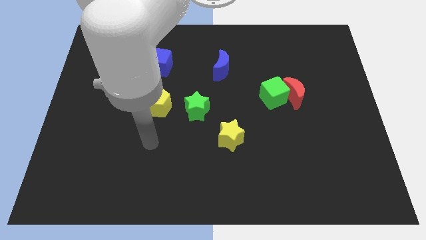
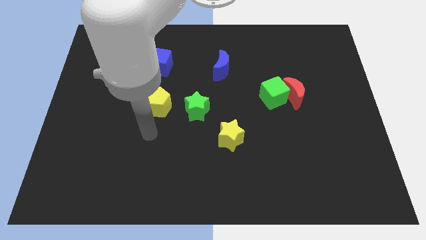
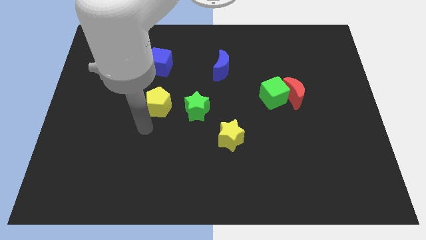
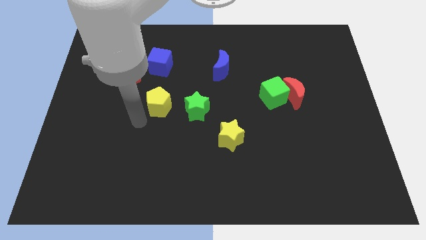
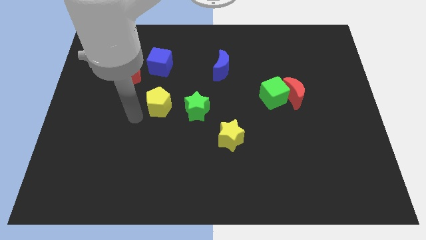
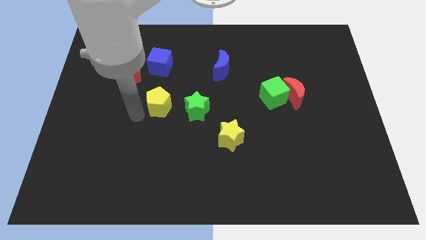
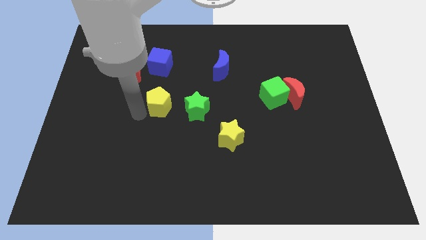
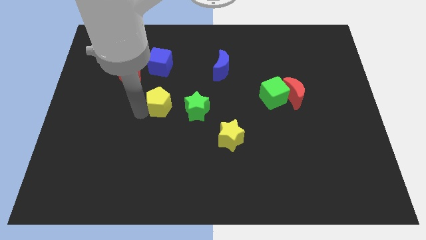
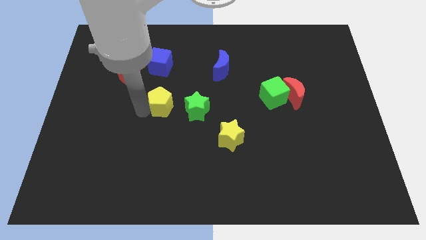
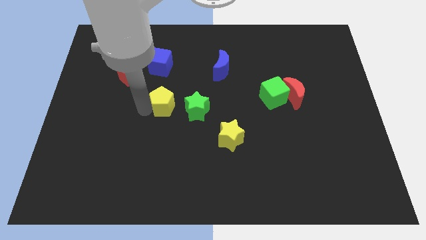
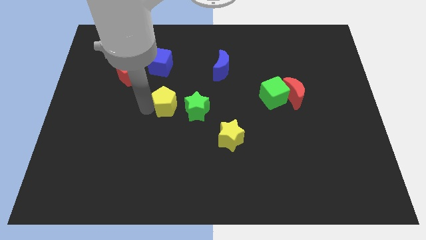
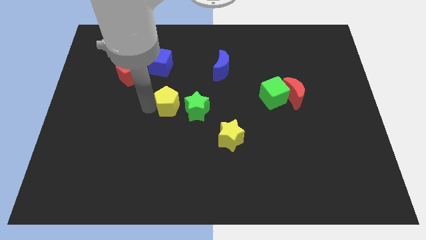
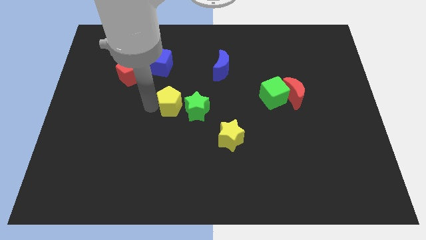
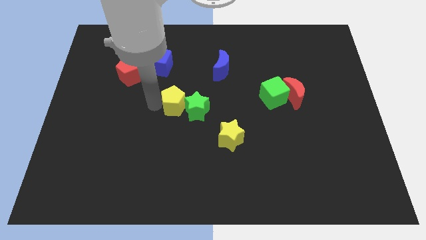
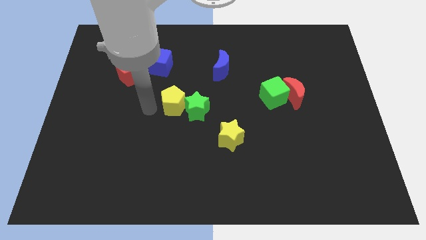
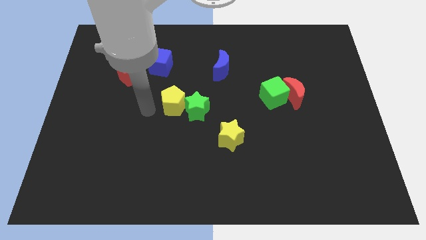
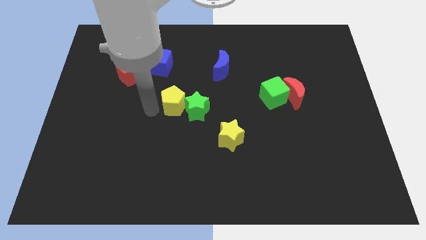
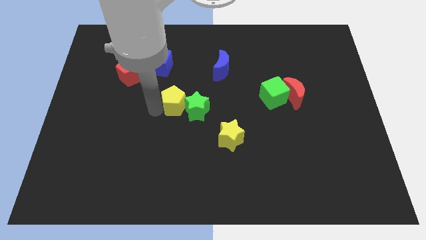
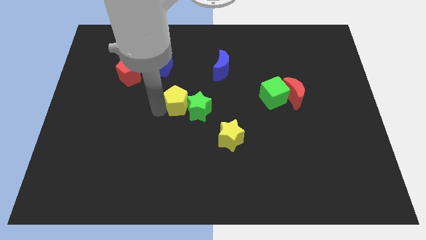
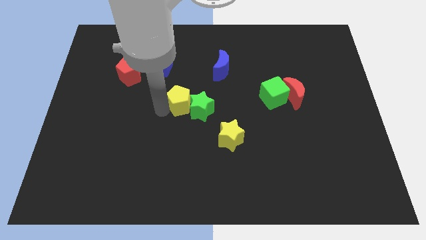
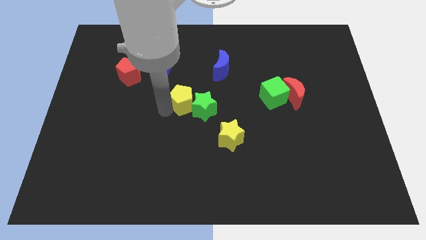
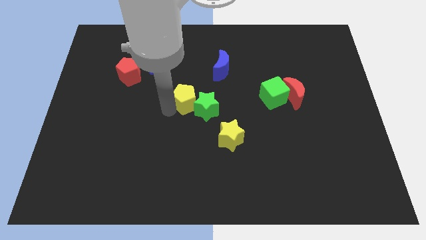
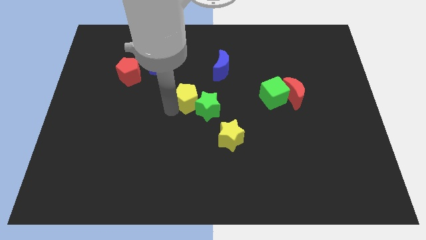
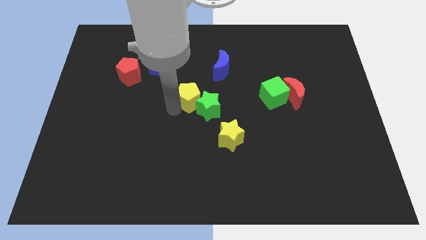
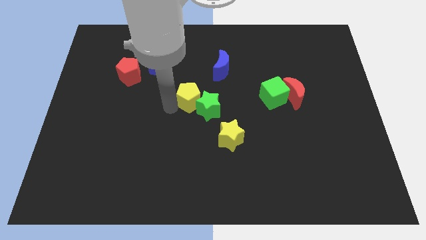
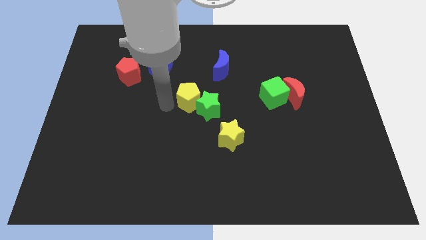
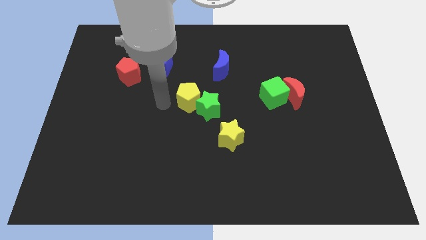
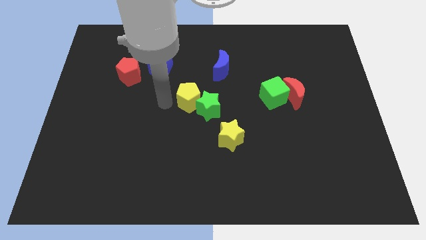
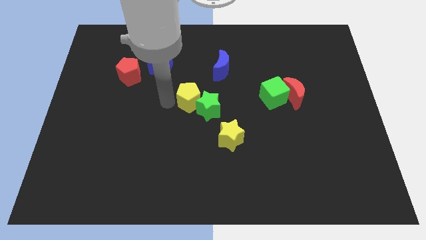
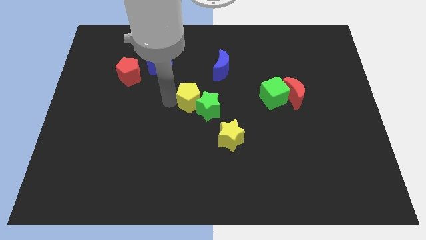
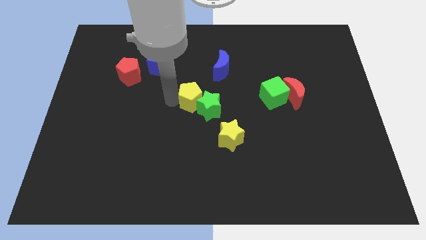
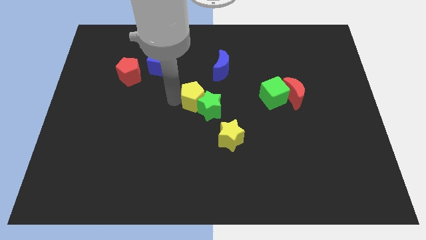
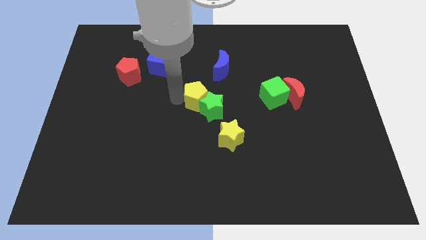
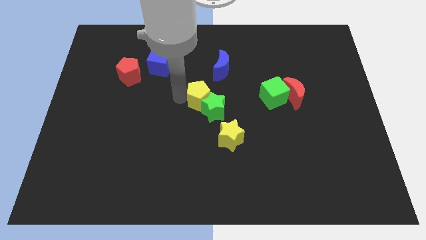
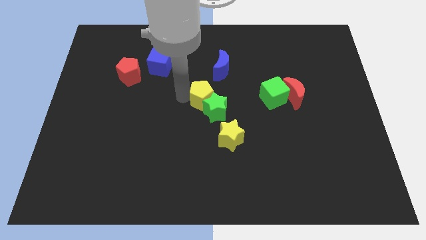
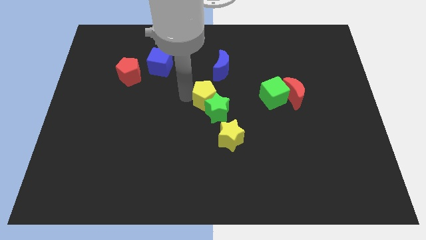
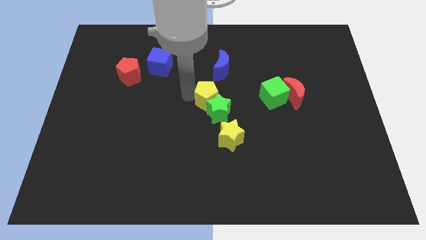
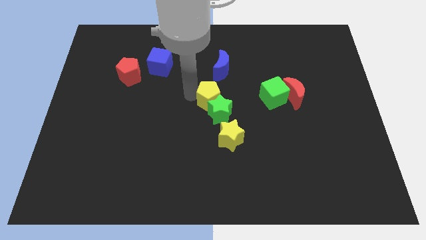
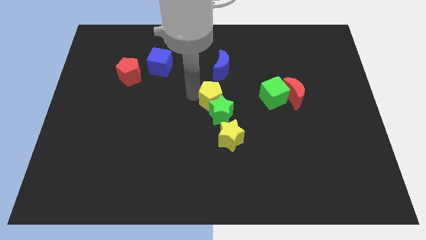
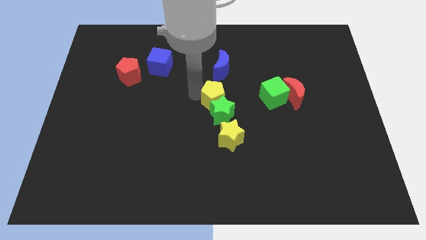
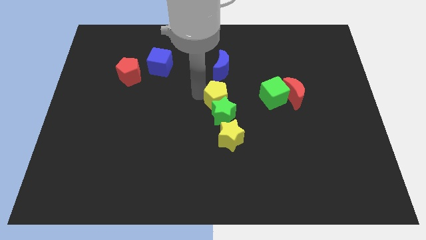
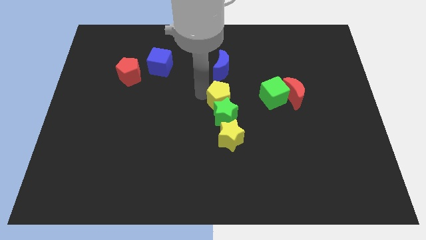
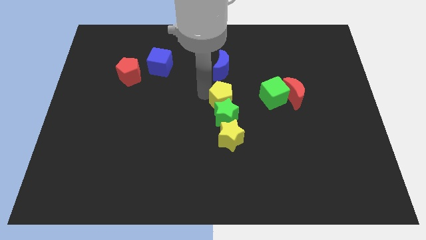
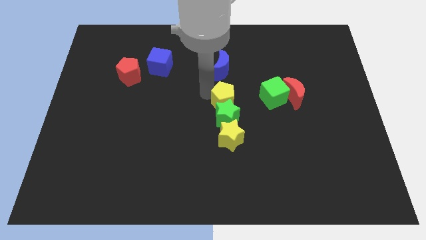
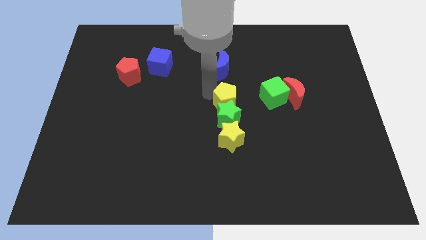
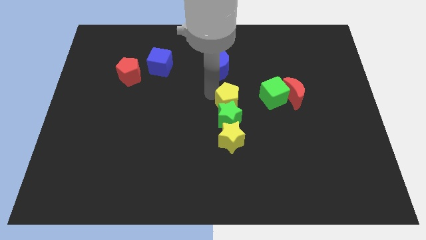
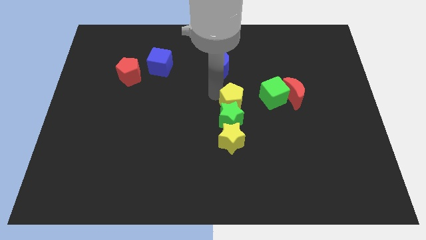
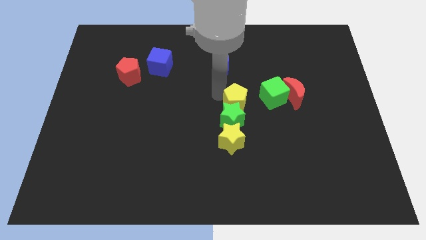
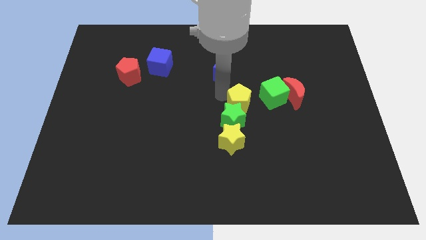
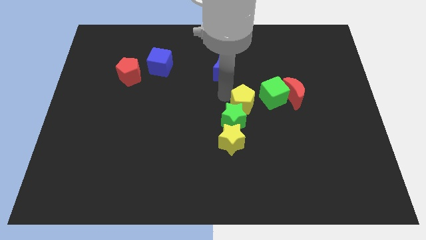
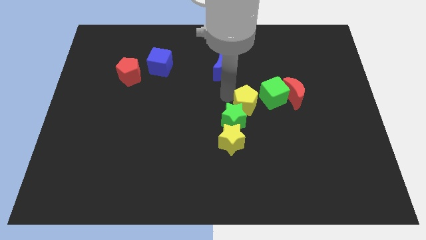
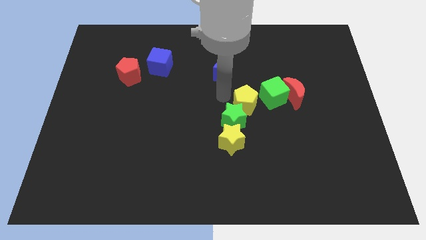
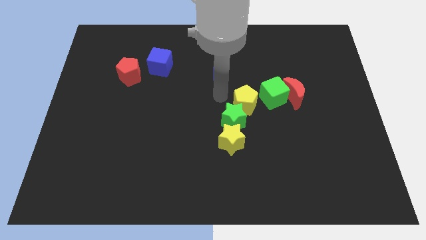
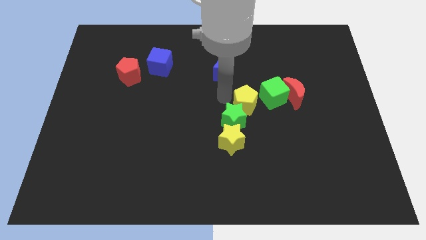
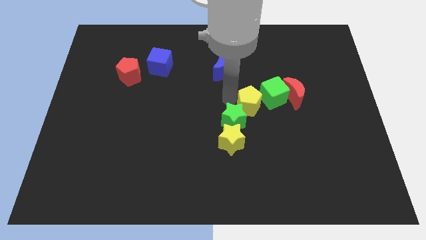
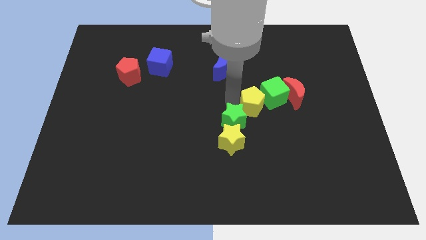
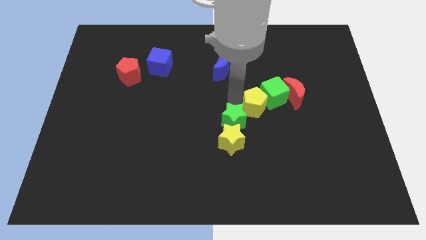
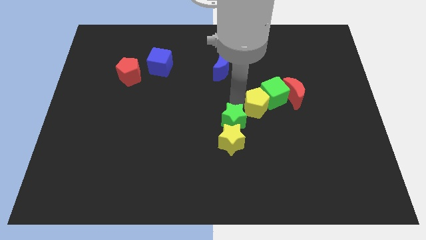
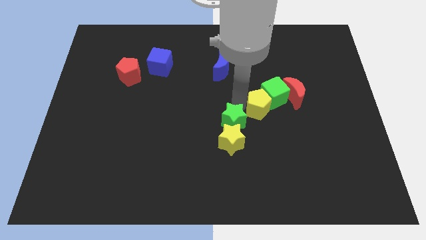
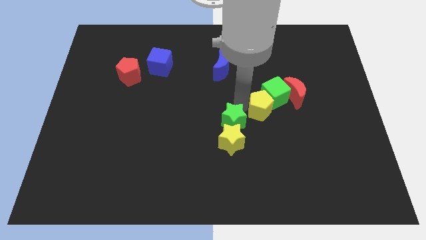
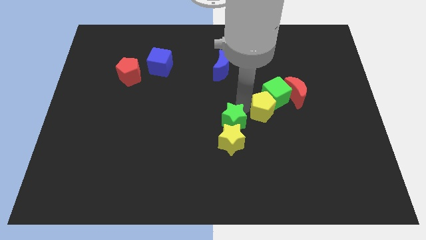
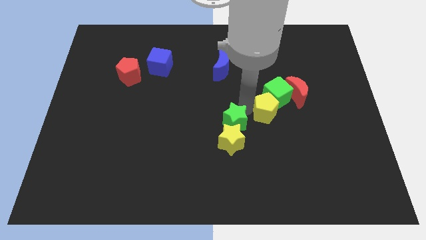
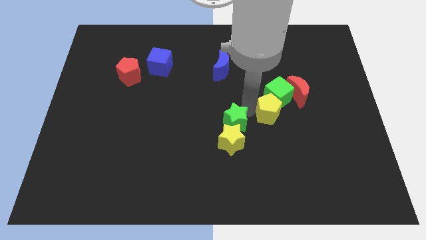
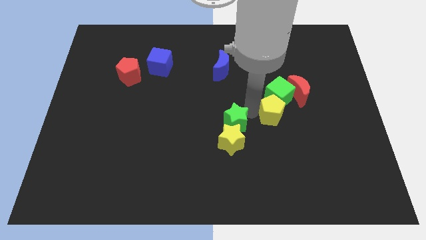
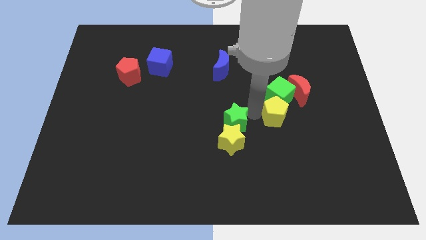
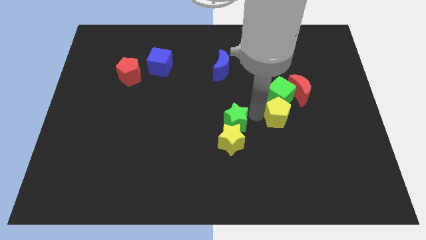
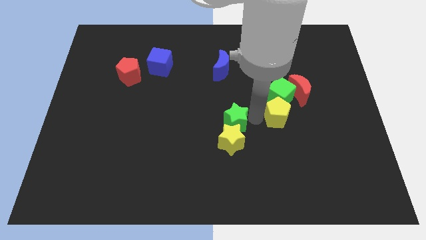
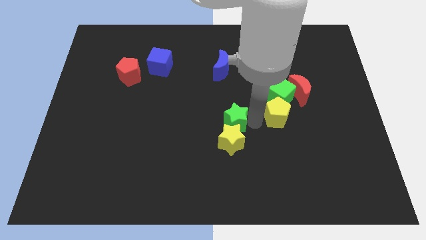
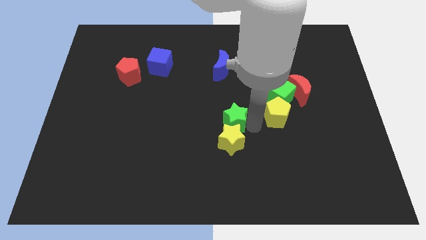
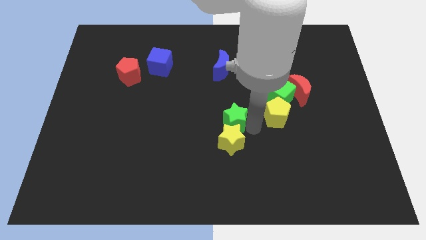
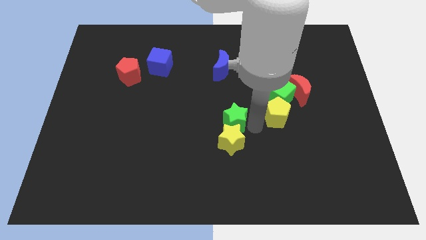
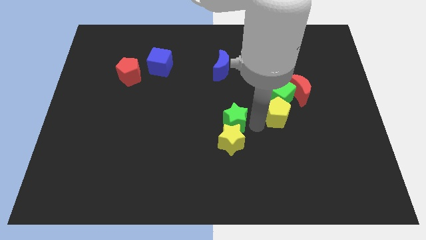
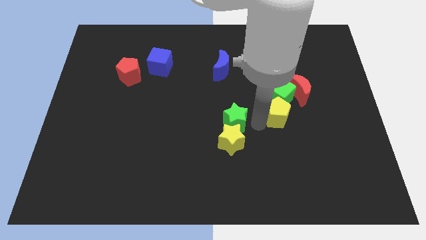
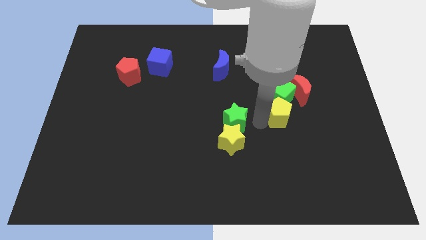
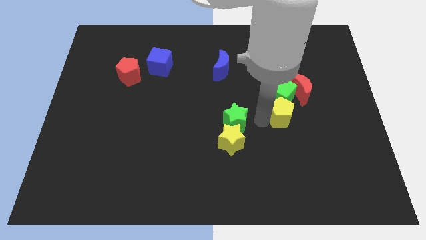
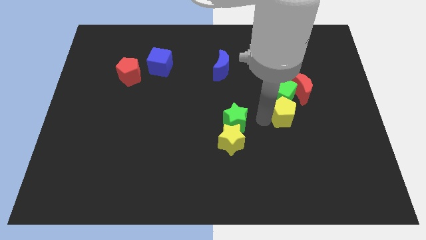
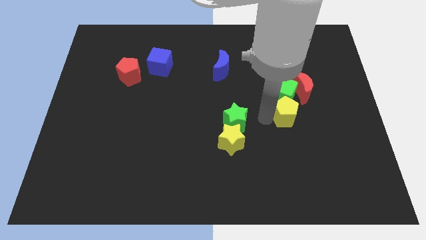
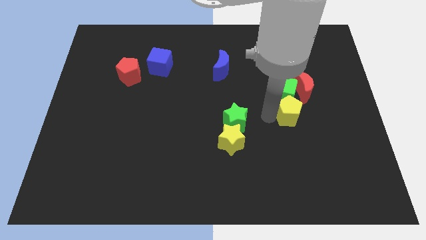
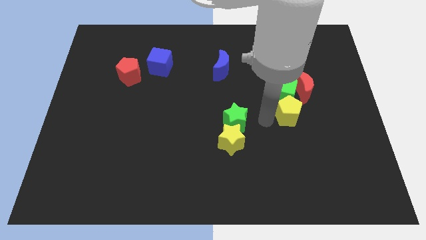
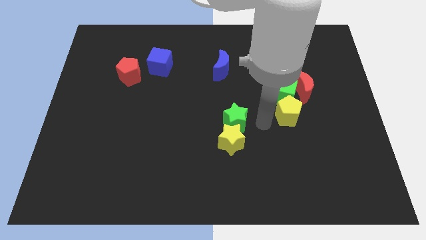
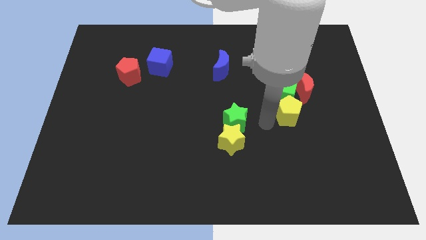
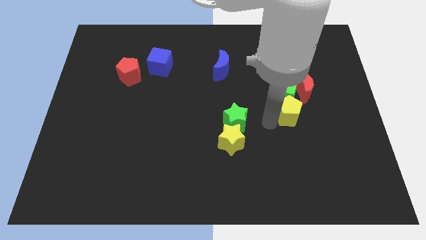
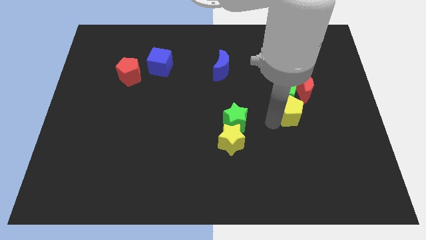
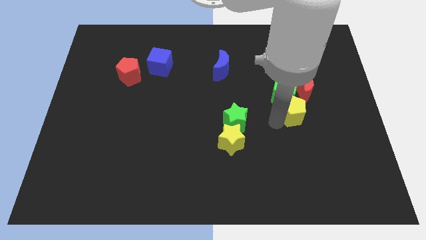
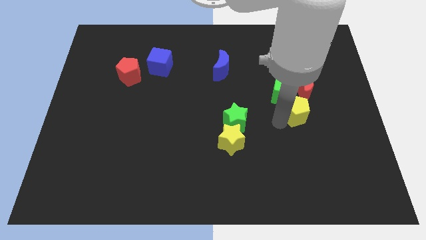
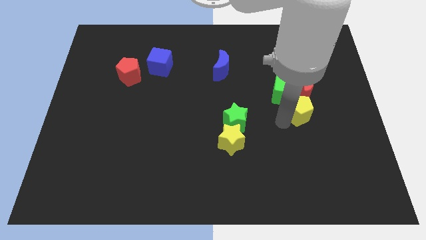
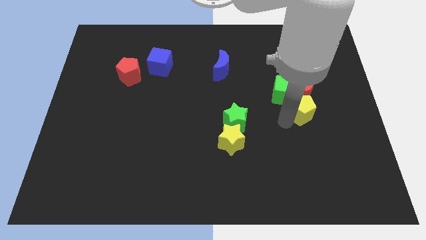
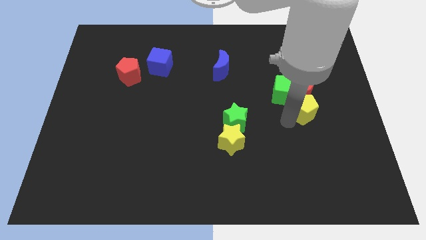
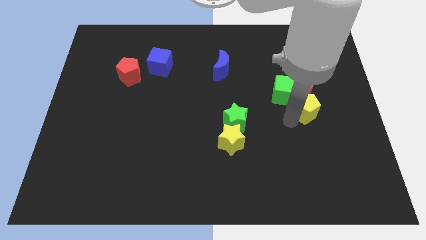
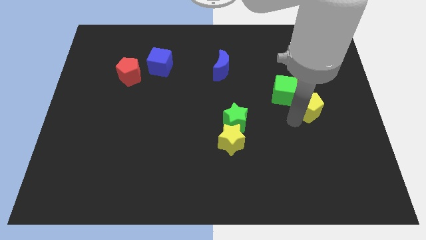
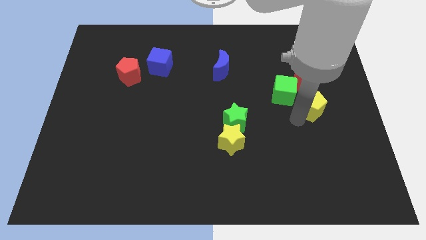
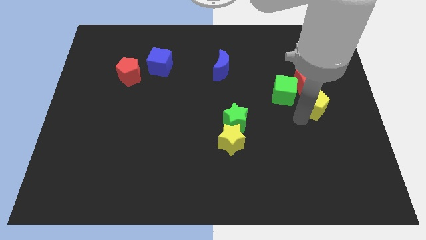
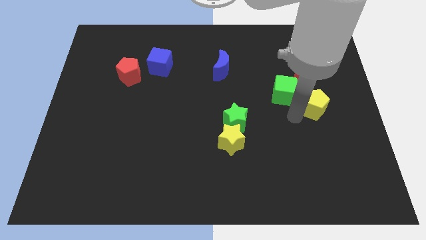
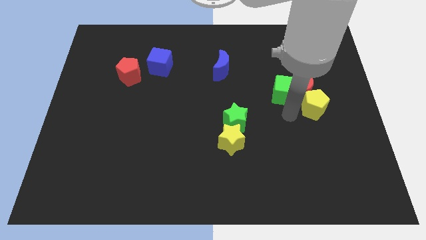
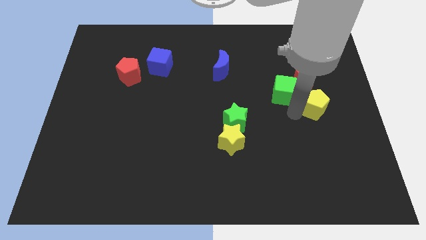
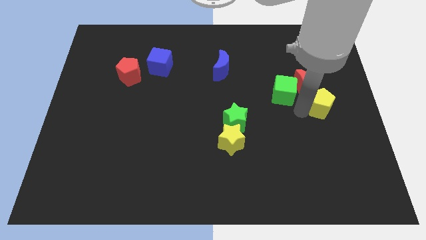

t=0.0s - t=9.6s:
put the yellow pentagon to the right side
